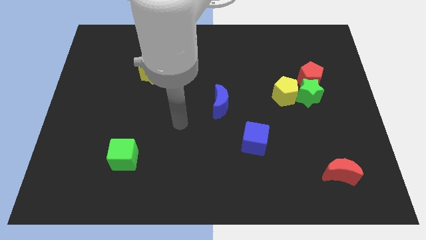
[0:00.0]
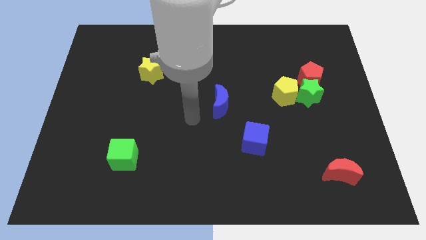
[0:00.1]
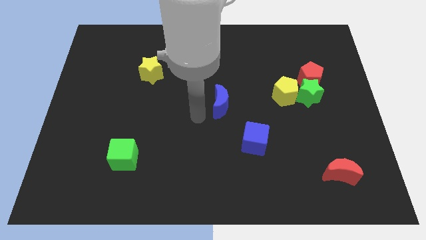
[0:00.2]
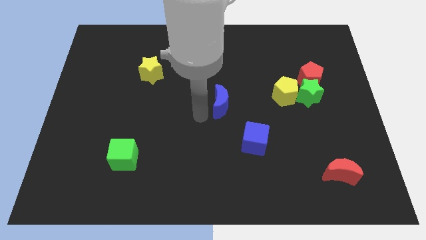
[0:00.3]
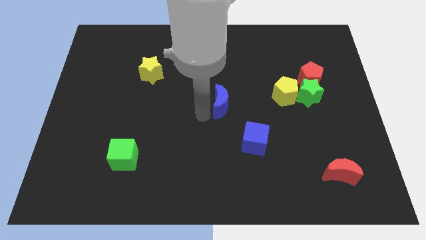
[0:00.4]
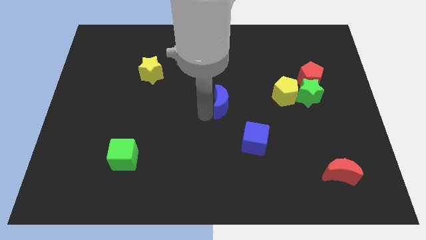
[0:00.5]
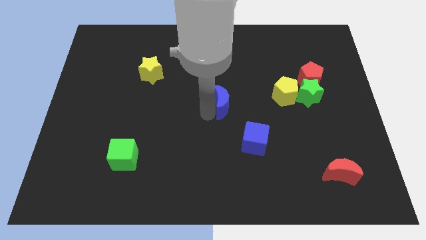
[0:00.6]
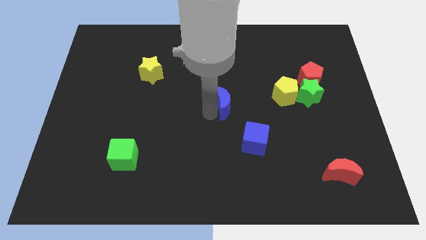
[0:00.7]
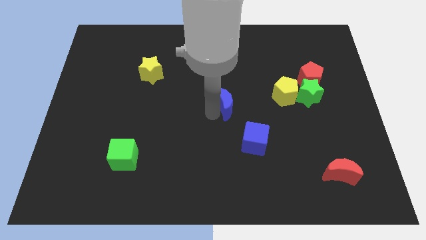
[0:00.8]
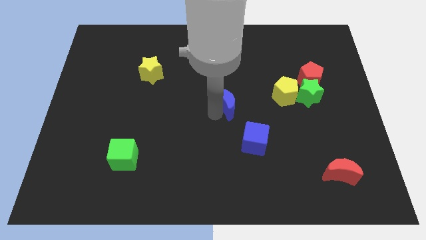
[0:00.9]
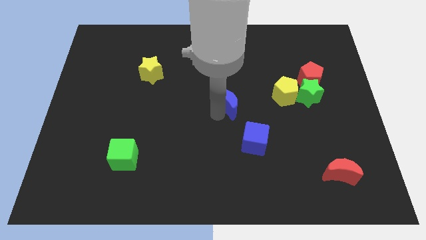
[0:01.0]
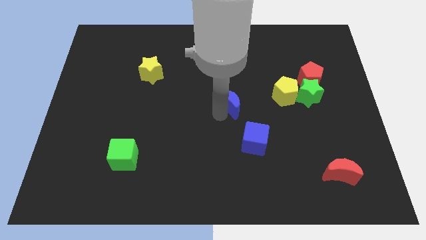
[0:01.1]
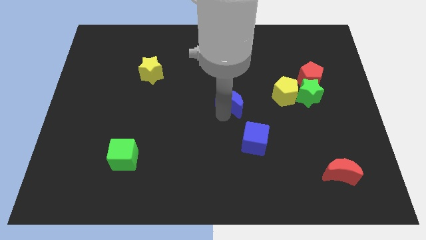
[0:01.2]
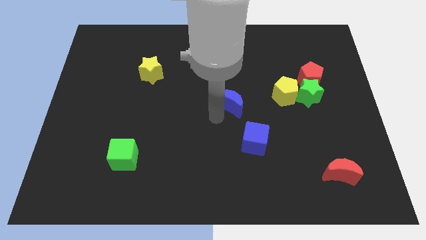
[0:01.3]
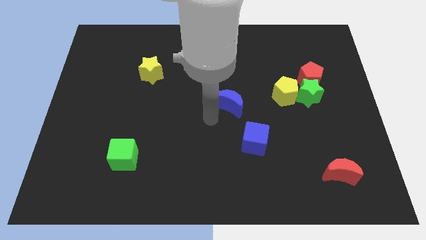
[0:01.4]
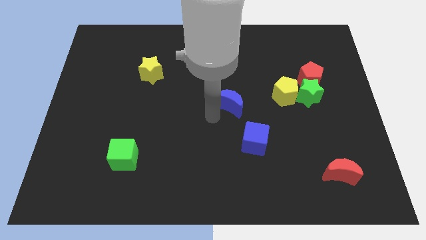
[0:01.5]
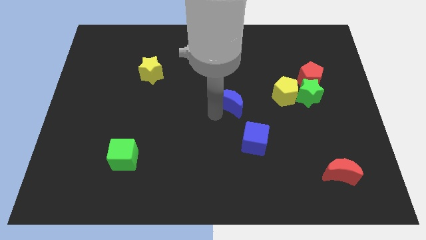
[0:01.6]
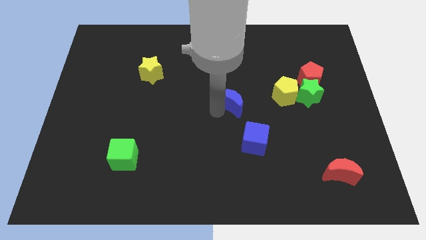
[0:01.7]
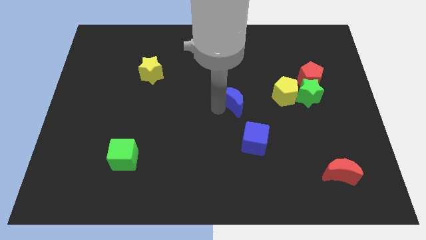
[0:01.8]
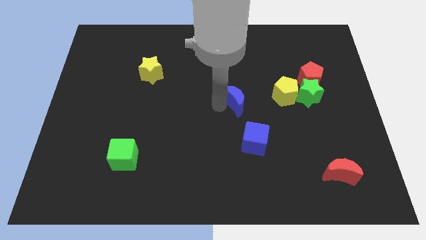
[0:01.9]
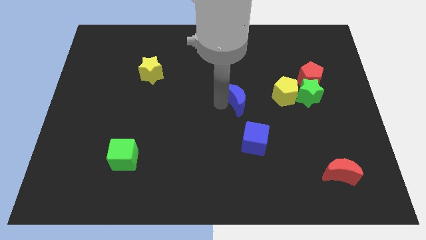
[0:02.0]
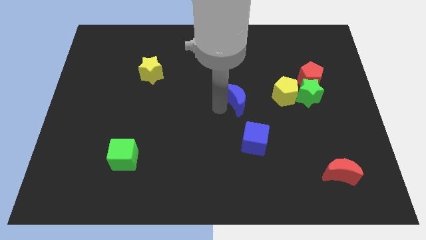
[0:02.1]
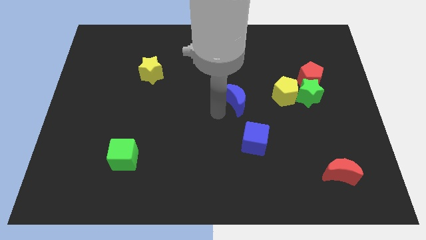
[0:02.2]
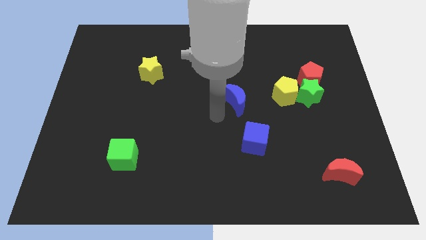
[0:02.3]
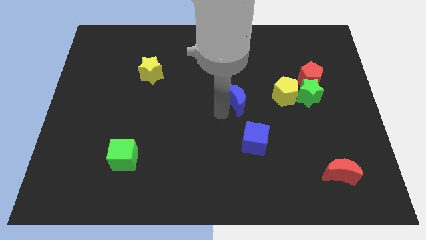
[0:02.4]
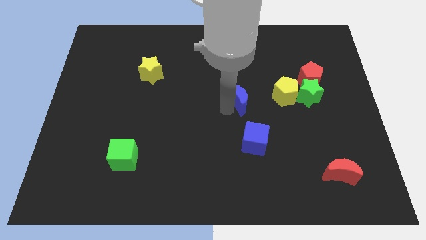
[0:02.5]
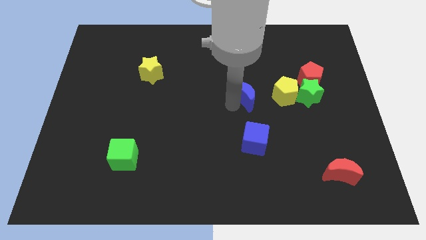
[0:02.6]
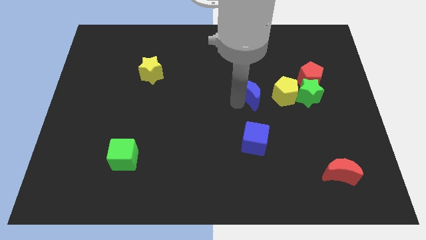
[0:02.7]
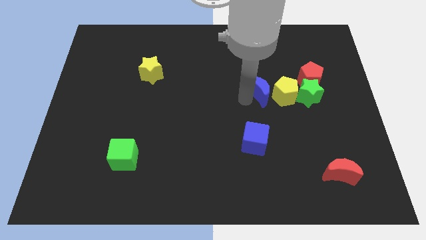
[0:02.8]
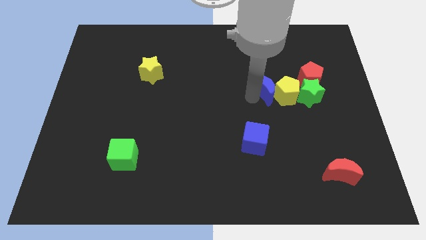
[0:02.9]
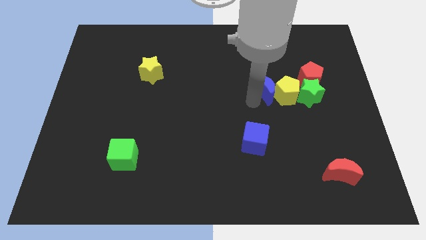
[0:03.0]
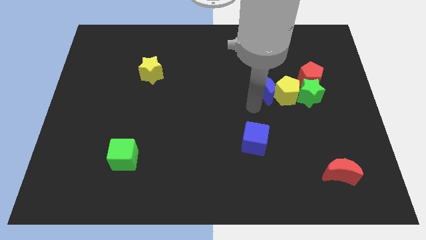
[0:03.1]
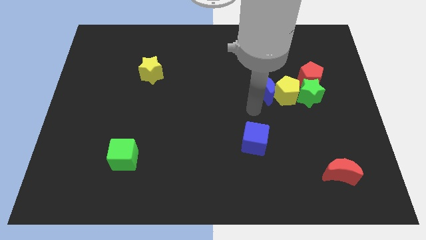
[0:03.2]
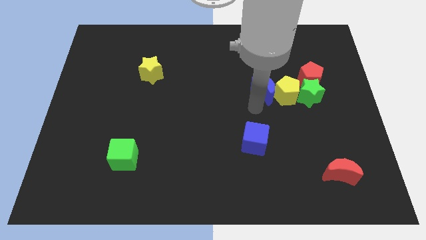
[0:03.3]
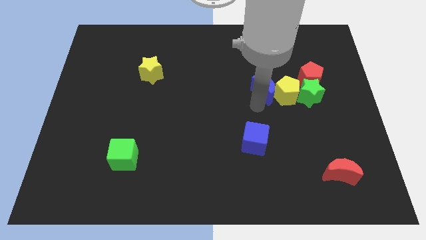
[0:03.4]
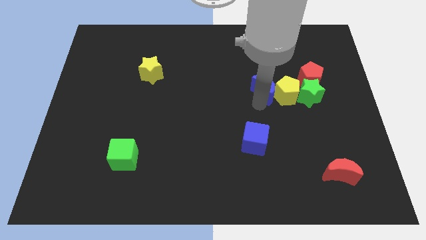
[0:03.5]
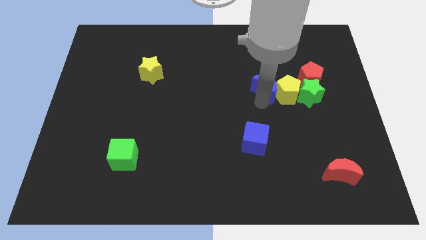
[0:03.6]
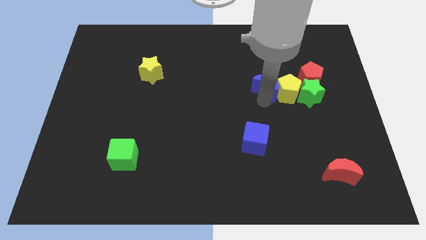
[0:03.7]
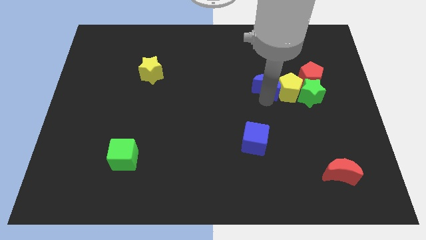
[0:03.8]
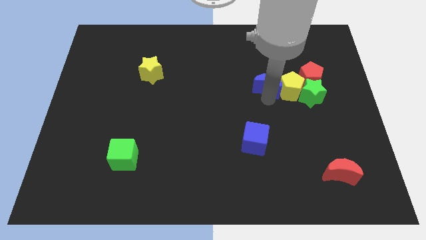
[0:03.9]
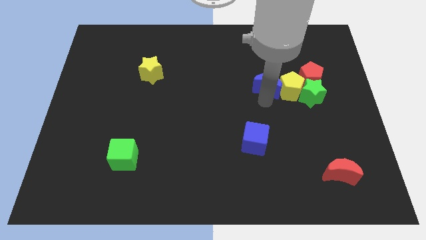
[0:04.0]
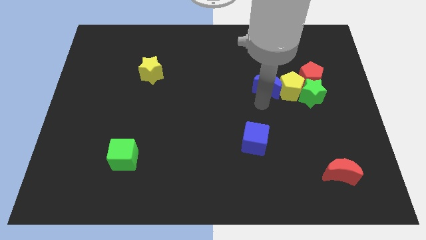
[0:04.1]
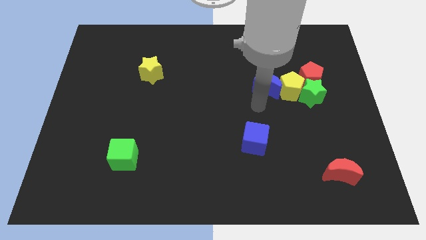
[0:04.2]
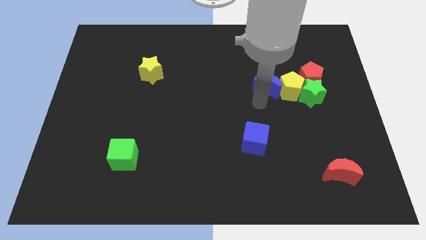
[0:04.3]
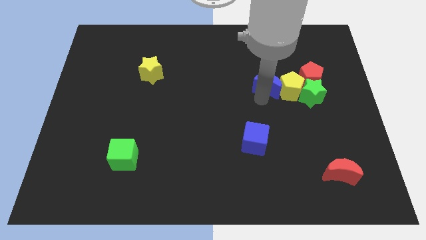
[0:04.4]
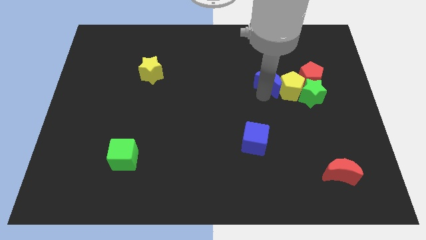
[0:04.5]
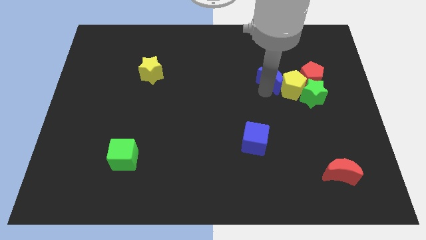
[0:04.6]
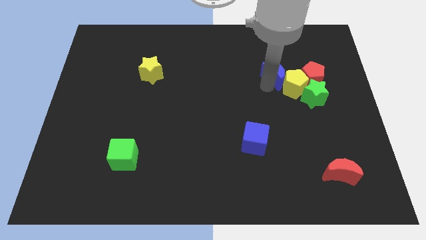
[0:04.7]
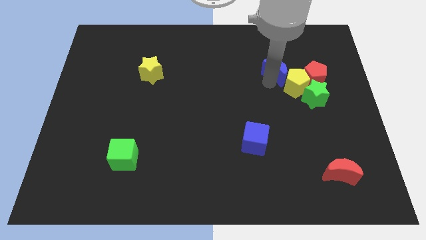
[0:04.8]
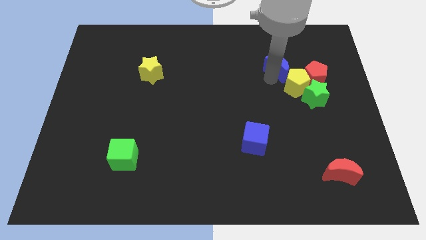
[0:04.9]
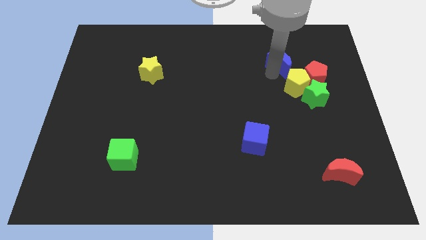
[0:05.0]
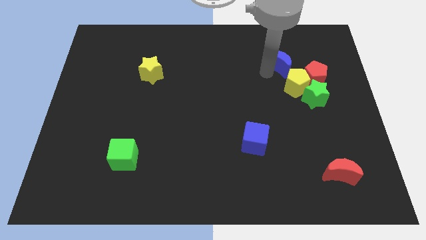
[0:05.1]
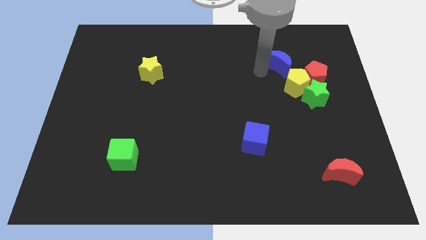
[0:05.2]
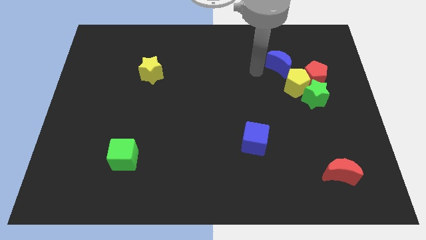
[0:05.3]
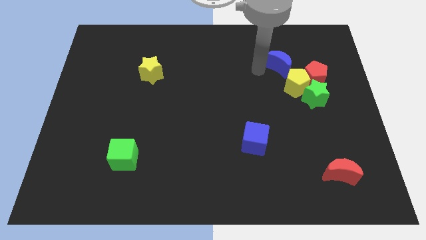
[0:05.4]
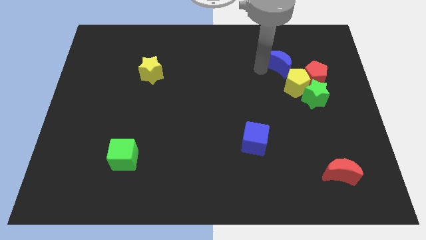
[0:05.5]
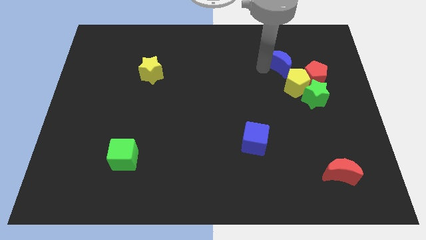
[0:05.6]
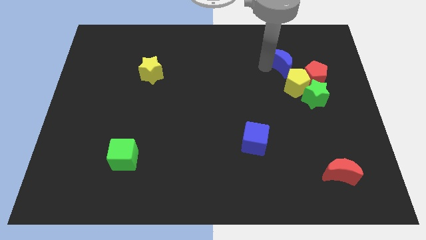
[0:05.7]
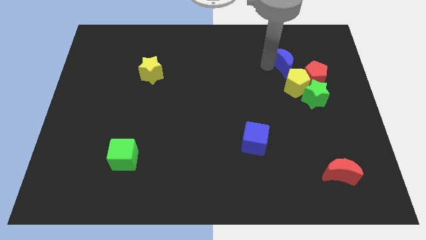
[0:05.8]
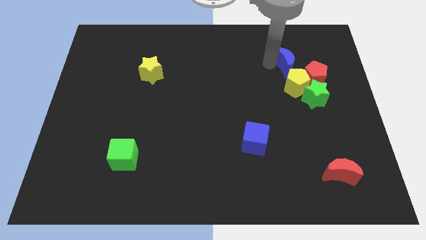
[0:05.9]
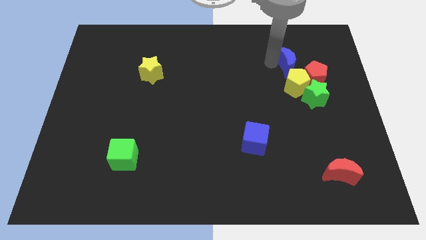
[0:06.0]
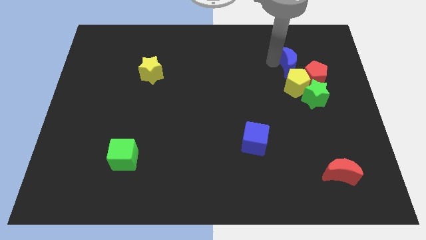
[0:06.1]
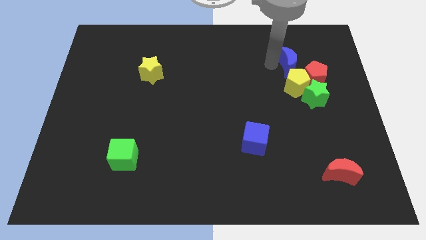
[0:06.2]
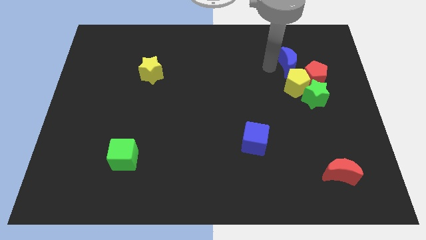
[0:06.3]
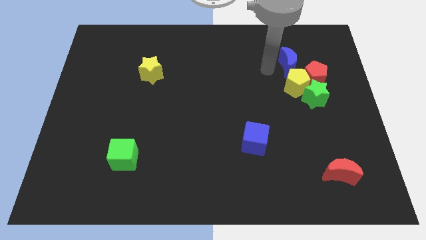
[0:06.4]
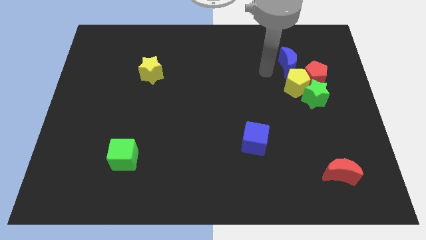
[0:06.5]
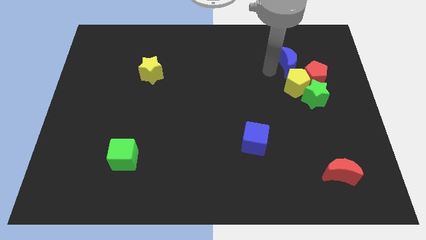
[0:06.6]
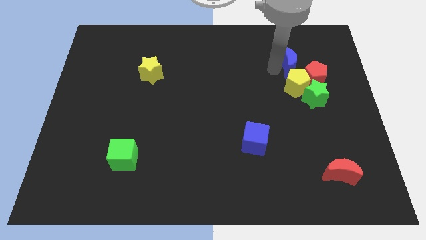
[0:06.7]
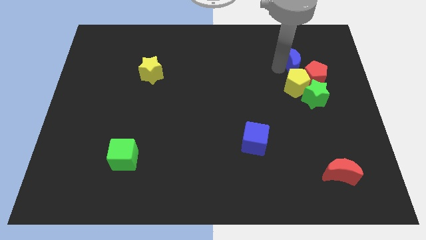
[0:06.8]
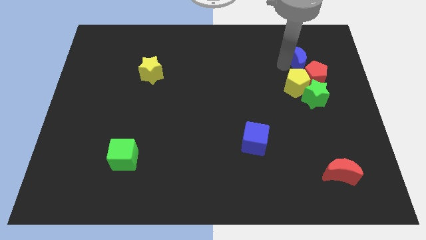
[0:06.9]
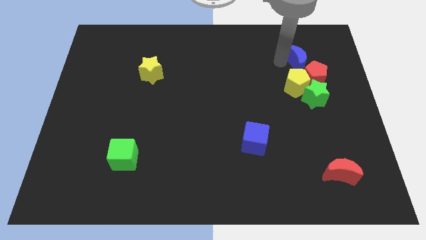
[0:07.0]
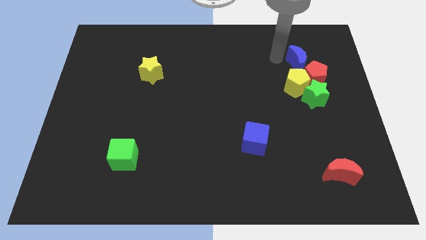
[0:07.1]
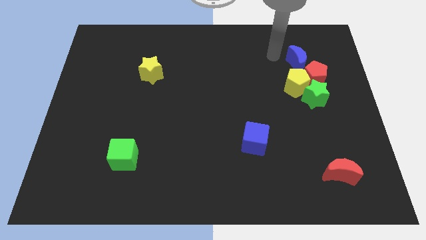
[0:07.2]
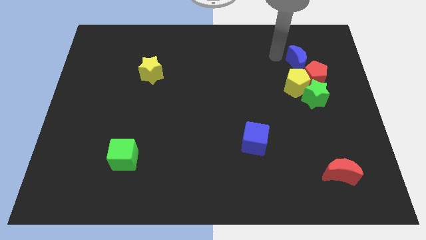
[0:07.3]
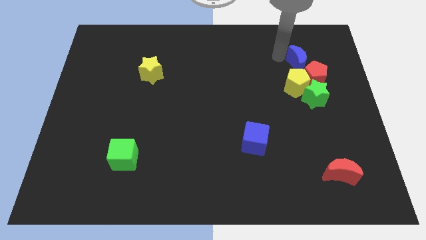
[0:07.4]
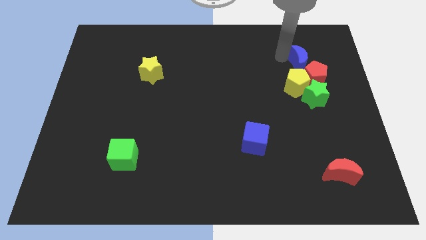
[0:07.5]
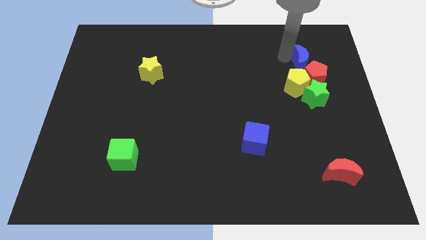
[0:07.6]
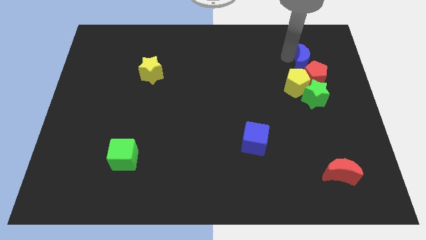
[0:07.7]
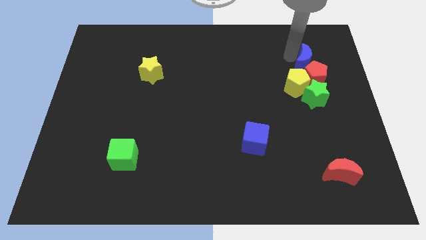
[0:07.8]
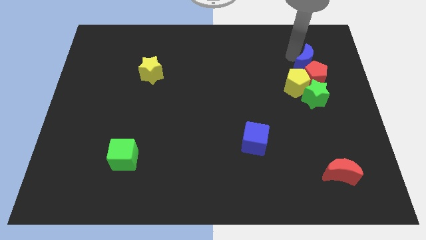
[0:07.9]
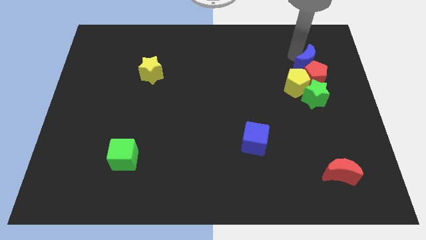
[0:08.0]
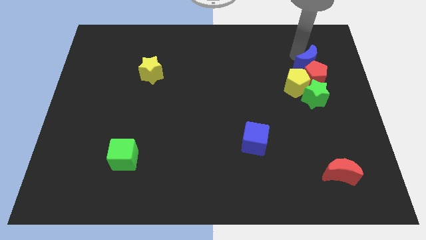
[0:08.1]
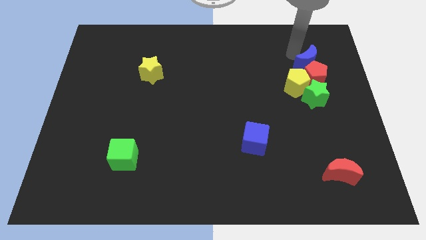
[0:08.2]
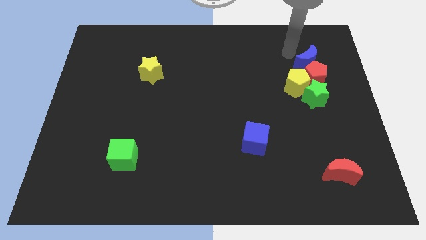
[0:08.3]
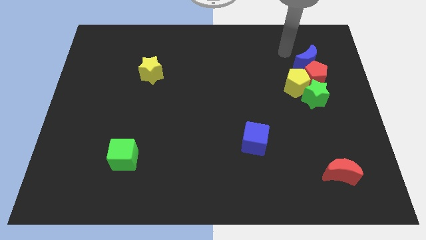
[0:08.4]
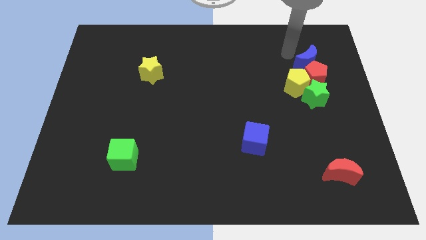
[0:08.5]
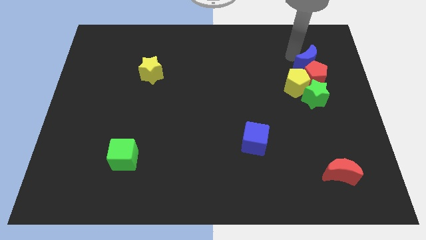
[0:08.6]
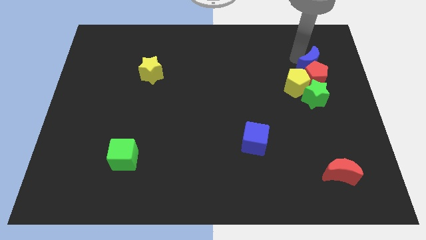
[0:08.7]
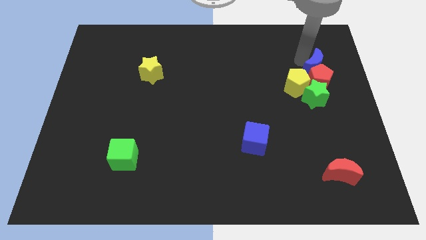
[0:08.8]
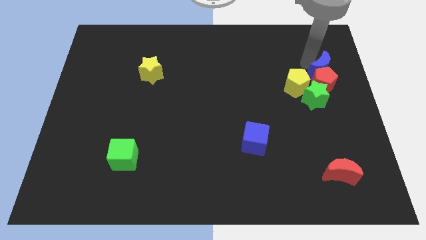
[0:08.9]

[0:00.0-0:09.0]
move the blue moon to the top right side of the green star
